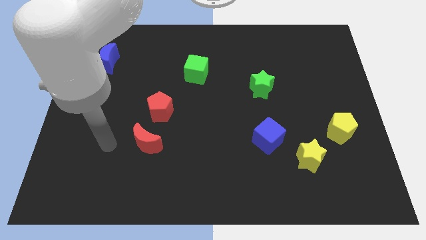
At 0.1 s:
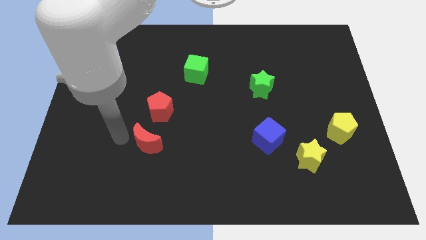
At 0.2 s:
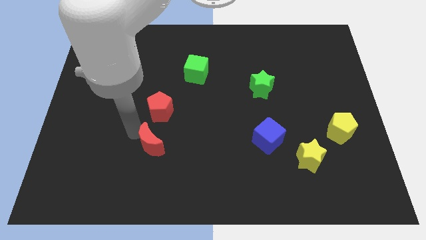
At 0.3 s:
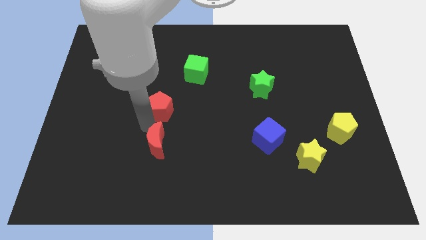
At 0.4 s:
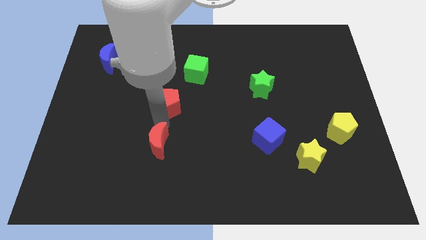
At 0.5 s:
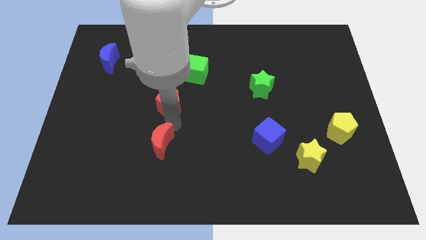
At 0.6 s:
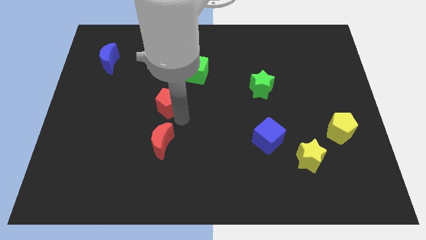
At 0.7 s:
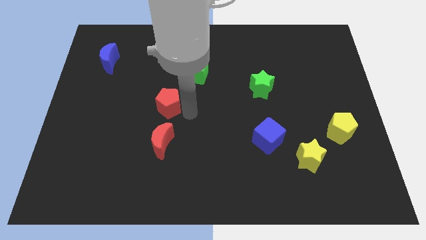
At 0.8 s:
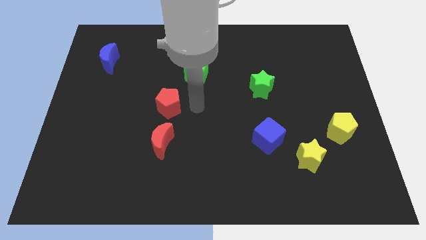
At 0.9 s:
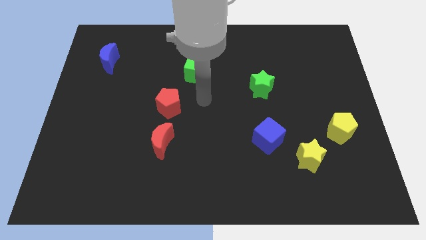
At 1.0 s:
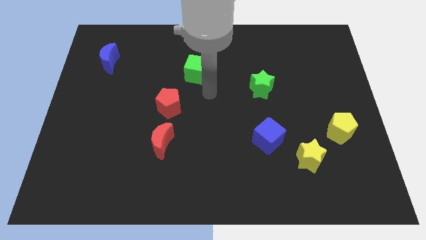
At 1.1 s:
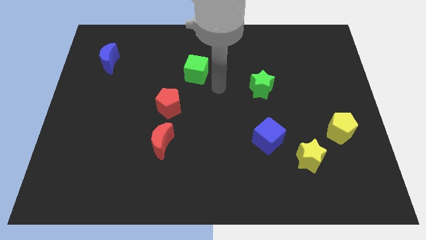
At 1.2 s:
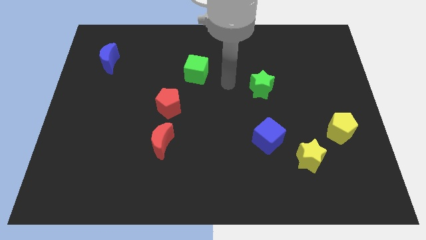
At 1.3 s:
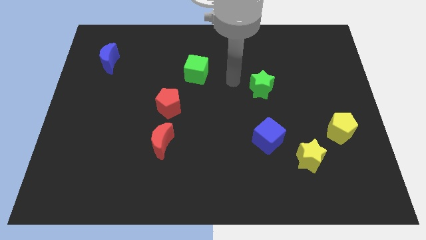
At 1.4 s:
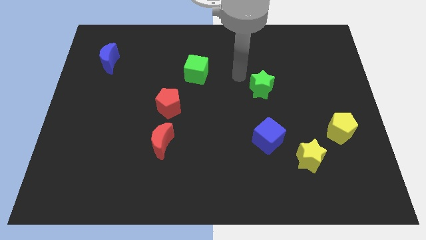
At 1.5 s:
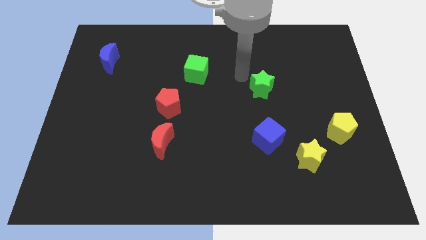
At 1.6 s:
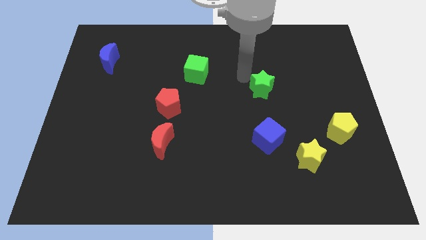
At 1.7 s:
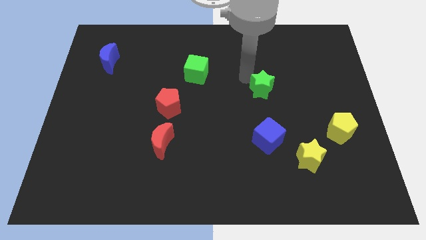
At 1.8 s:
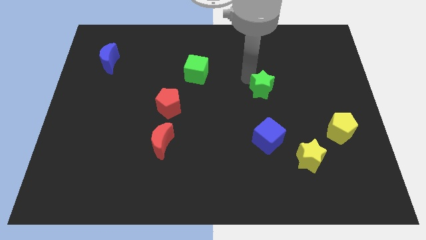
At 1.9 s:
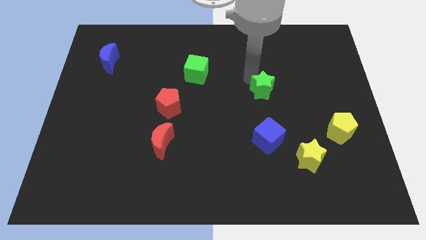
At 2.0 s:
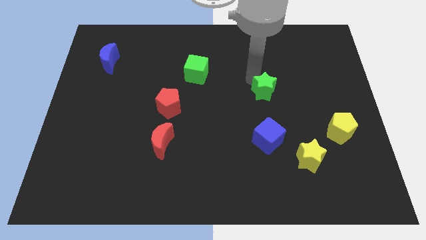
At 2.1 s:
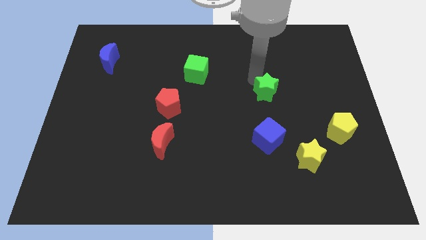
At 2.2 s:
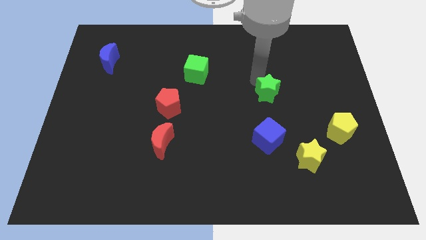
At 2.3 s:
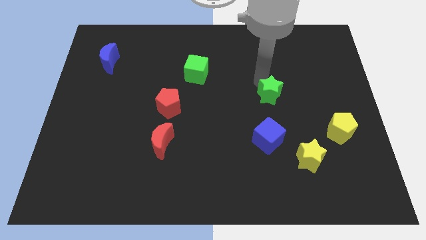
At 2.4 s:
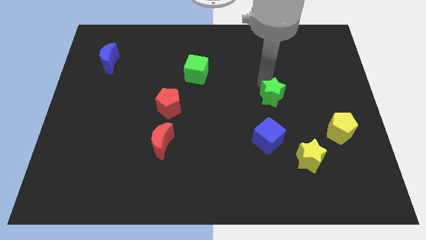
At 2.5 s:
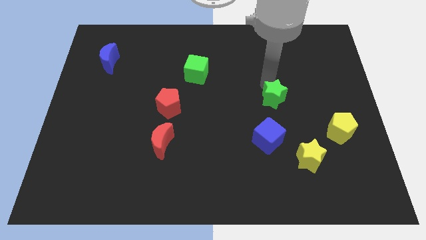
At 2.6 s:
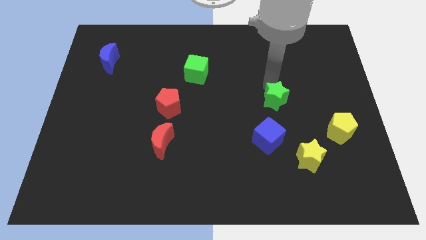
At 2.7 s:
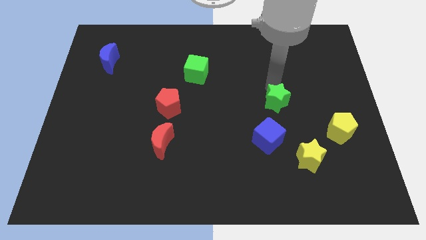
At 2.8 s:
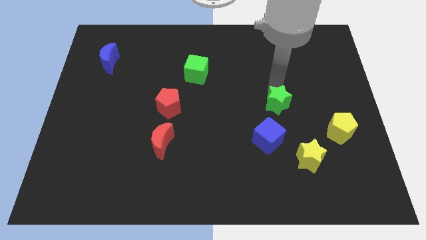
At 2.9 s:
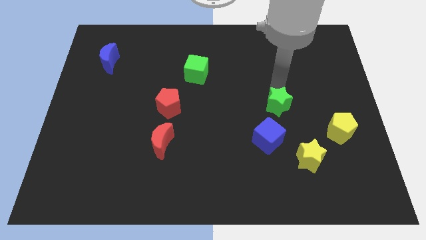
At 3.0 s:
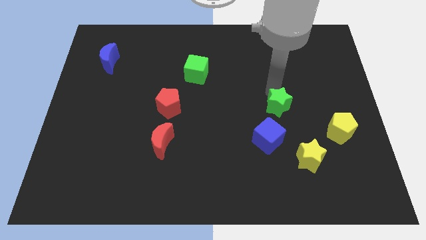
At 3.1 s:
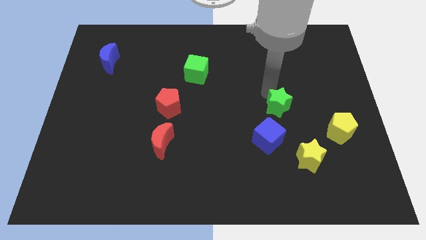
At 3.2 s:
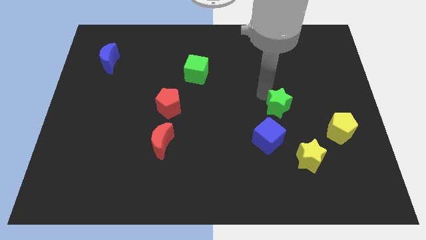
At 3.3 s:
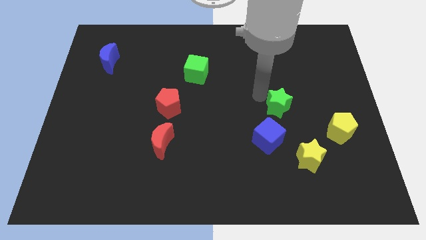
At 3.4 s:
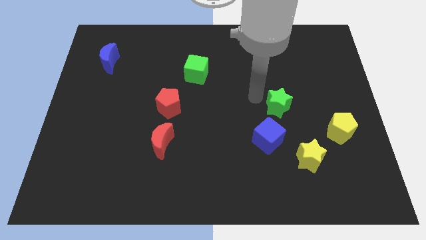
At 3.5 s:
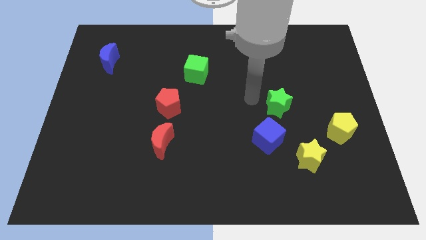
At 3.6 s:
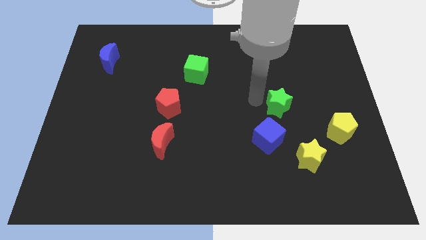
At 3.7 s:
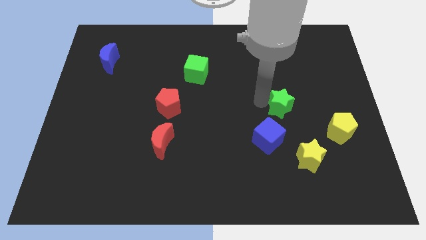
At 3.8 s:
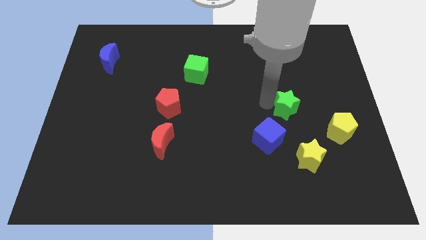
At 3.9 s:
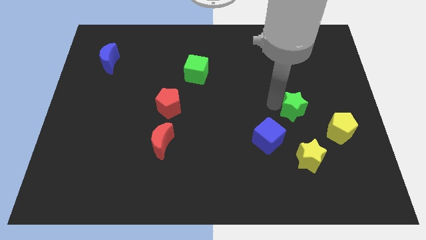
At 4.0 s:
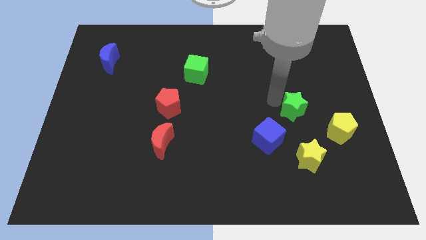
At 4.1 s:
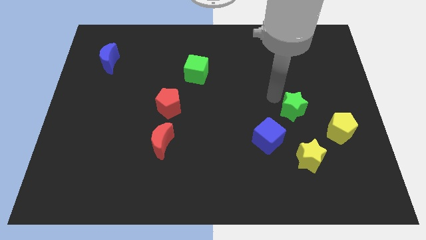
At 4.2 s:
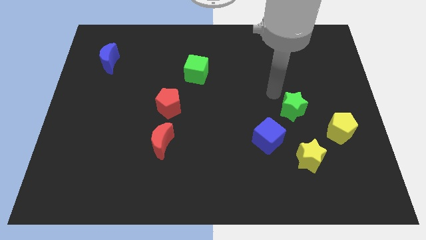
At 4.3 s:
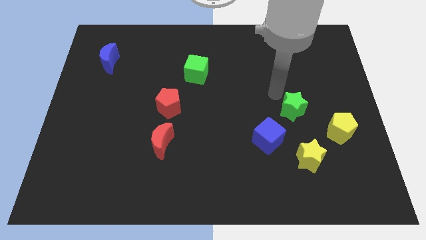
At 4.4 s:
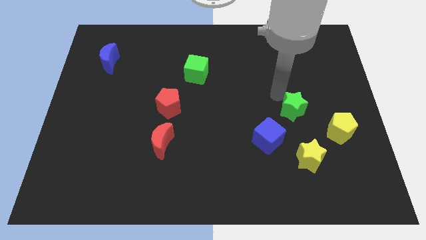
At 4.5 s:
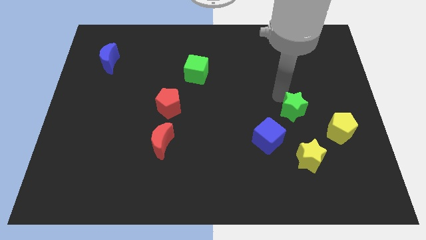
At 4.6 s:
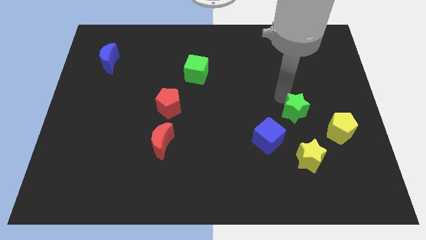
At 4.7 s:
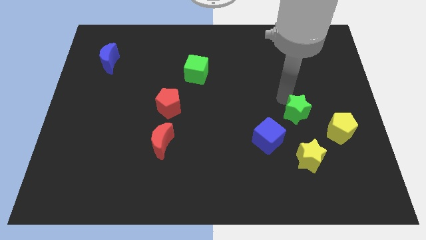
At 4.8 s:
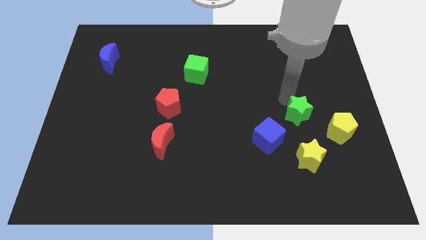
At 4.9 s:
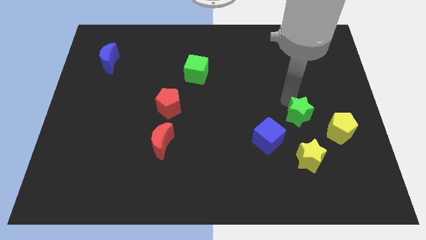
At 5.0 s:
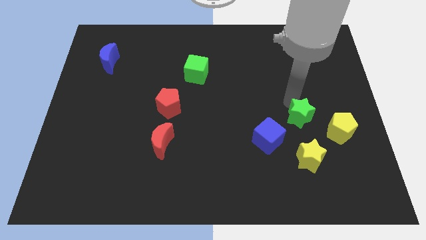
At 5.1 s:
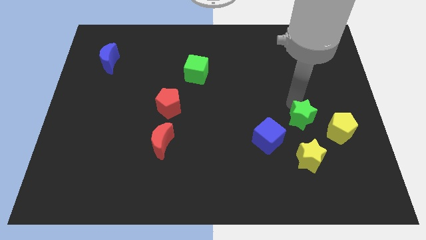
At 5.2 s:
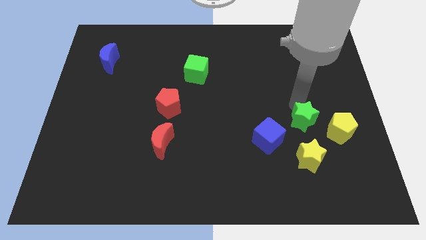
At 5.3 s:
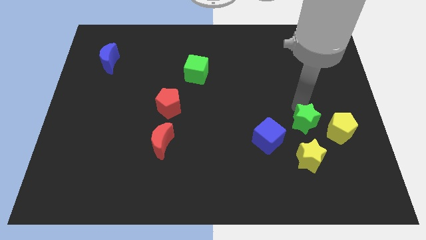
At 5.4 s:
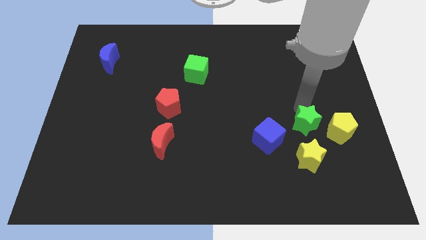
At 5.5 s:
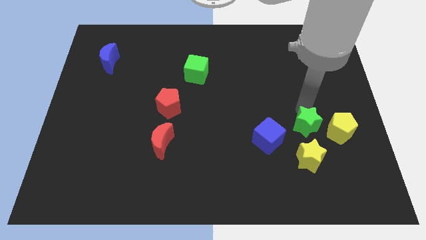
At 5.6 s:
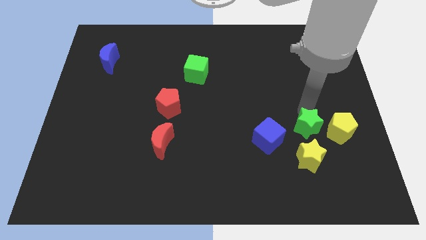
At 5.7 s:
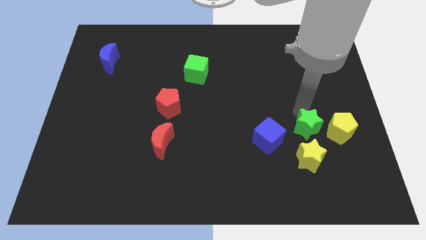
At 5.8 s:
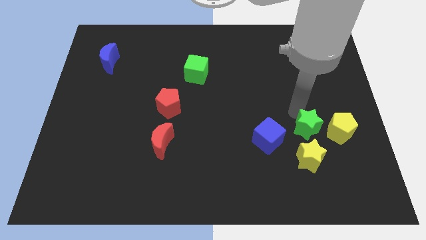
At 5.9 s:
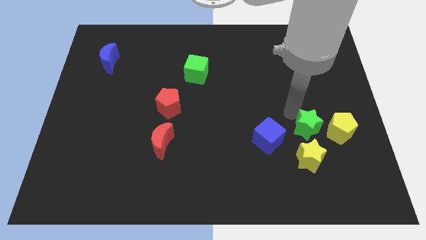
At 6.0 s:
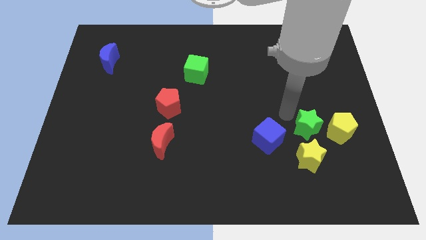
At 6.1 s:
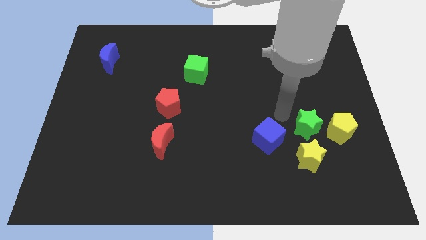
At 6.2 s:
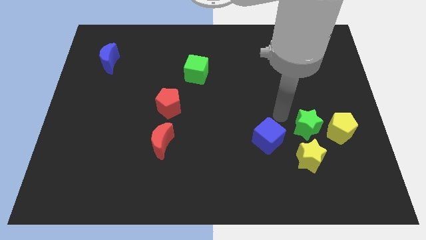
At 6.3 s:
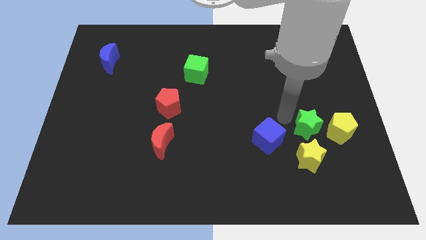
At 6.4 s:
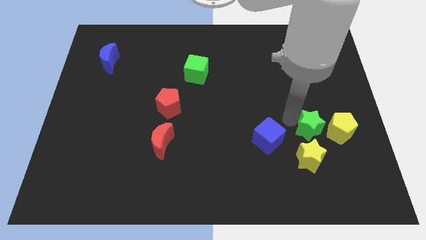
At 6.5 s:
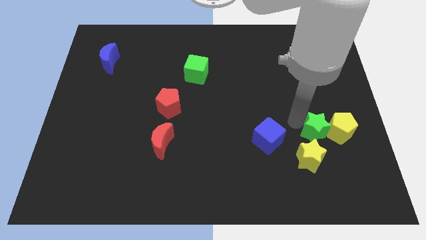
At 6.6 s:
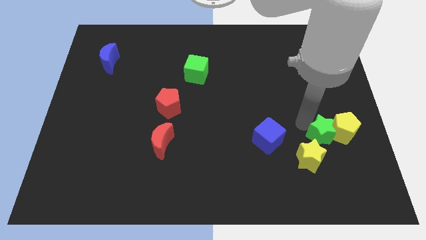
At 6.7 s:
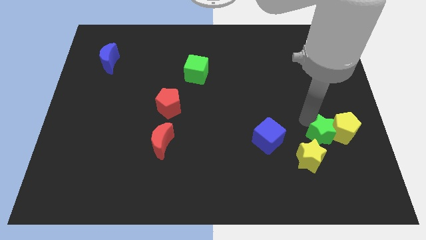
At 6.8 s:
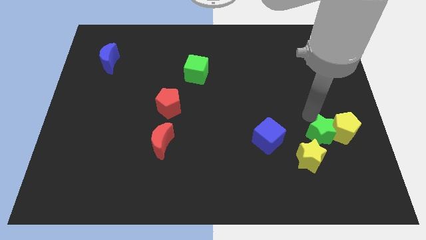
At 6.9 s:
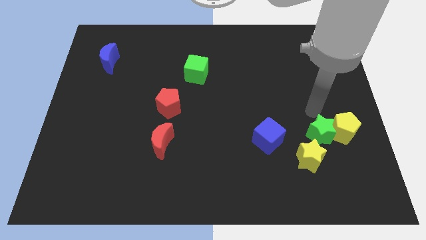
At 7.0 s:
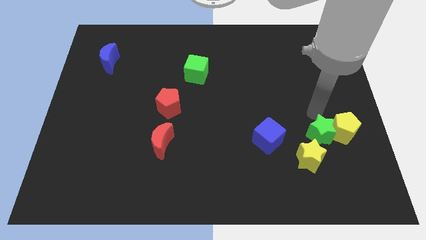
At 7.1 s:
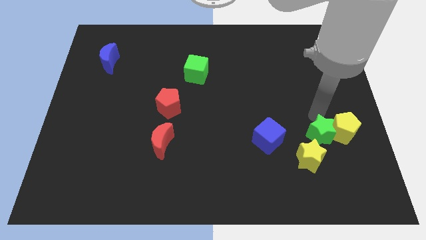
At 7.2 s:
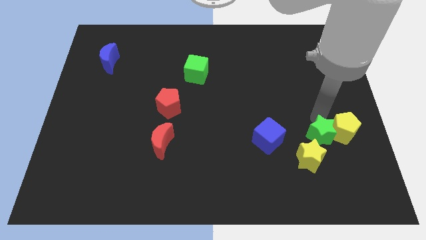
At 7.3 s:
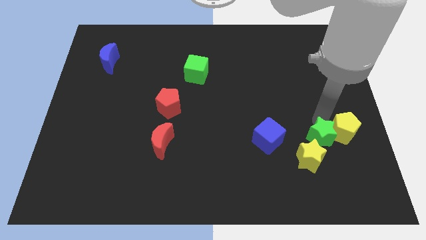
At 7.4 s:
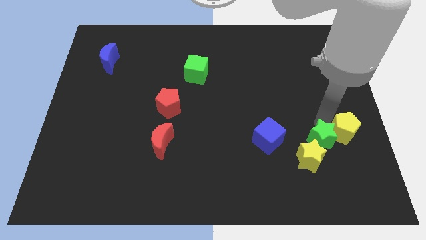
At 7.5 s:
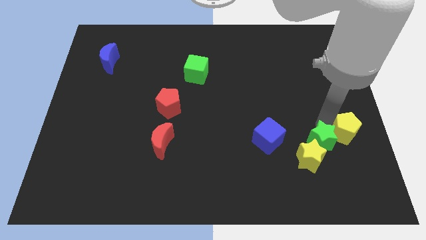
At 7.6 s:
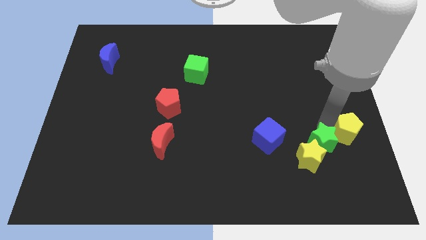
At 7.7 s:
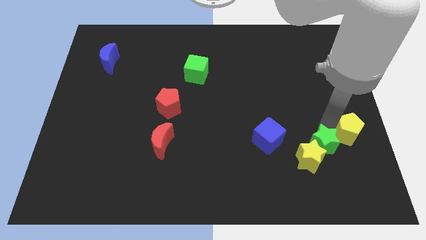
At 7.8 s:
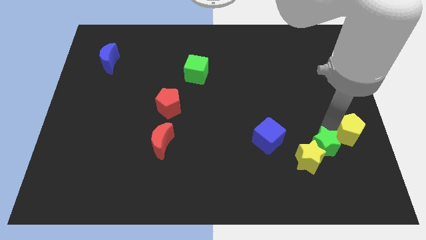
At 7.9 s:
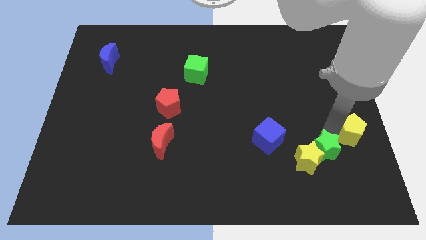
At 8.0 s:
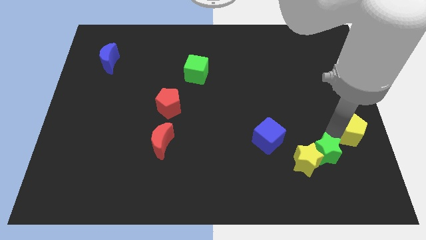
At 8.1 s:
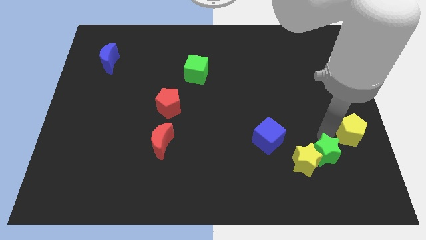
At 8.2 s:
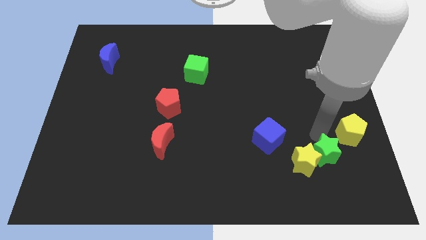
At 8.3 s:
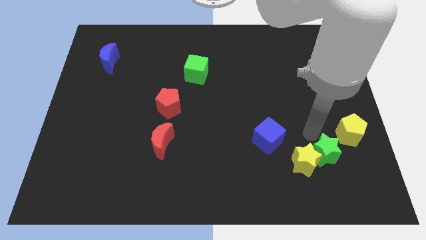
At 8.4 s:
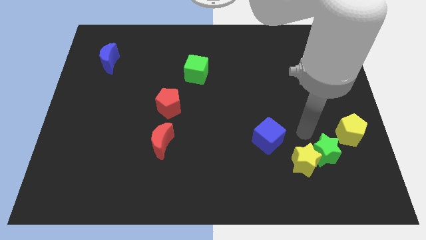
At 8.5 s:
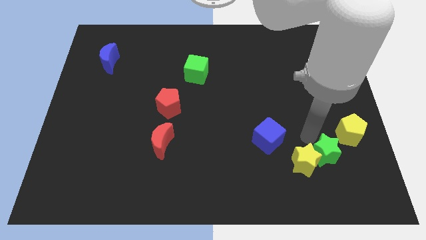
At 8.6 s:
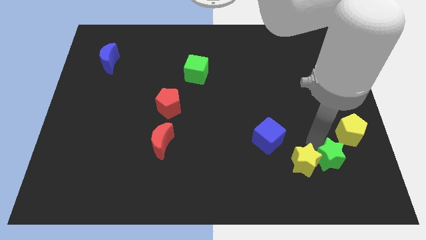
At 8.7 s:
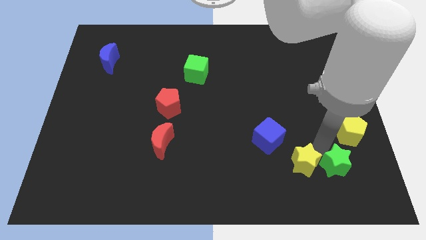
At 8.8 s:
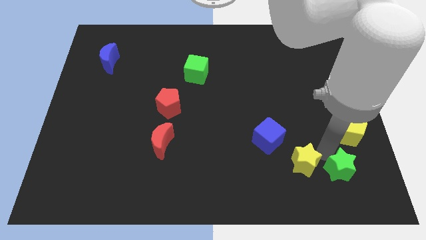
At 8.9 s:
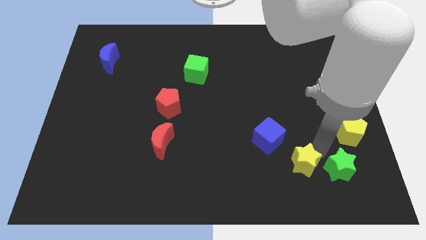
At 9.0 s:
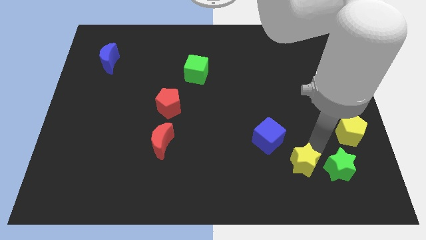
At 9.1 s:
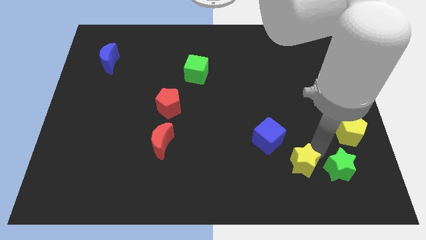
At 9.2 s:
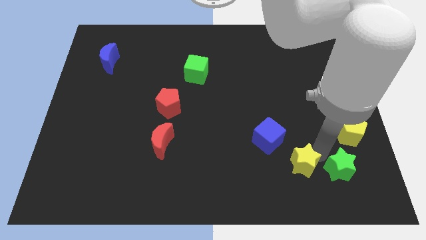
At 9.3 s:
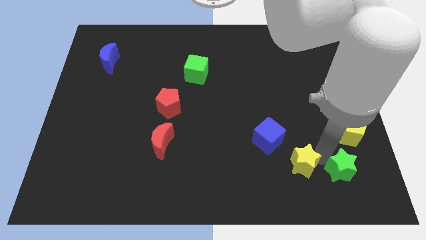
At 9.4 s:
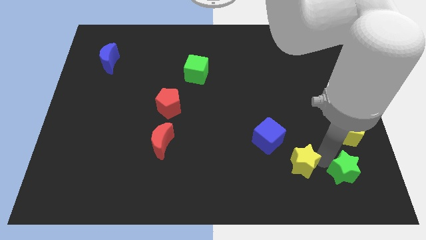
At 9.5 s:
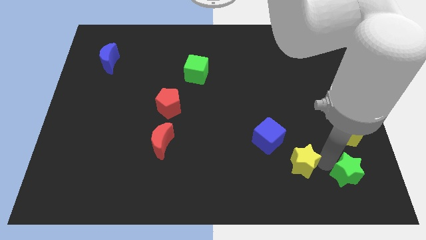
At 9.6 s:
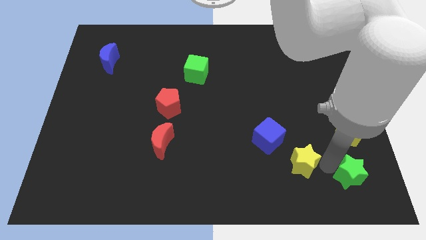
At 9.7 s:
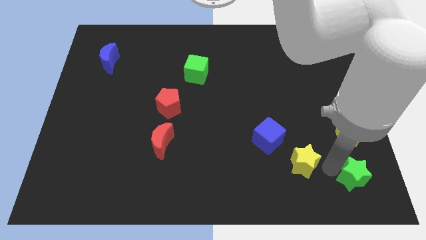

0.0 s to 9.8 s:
push the green star to the lower right corner
